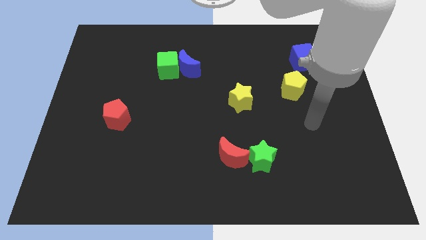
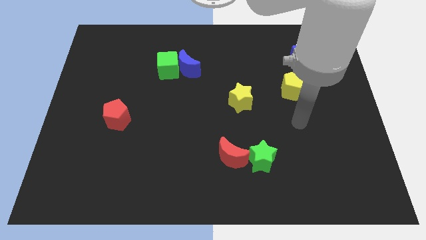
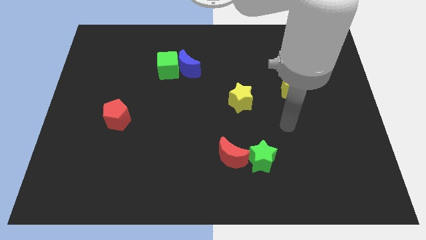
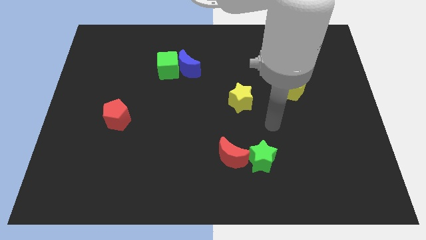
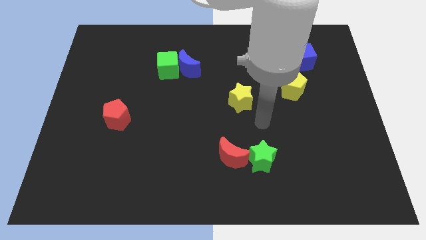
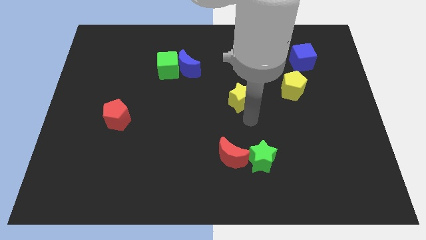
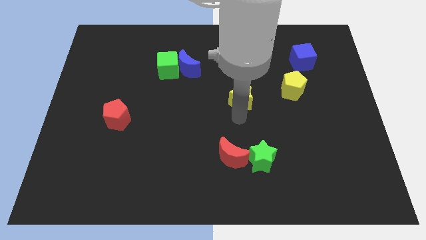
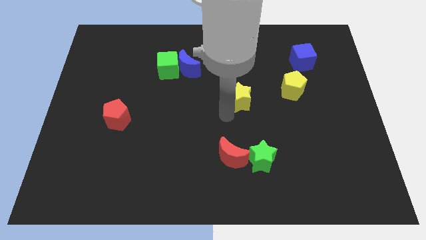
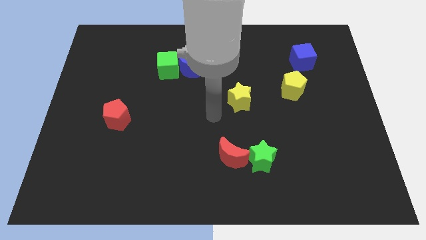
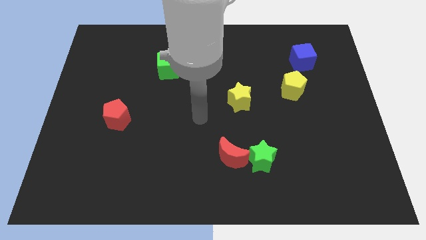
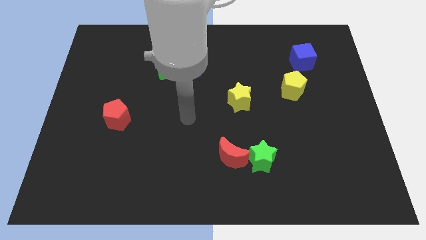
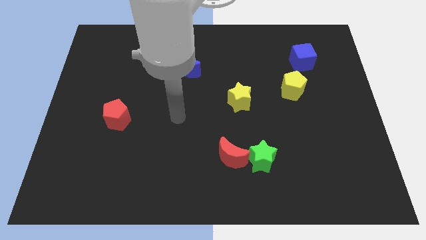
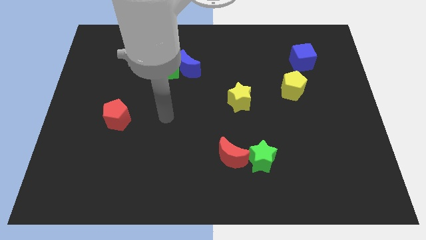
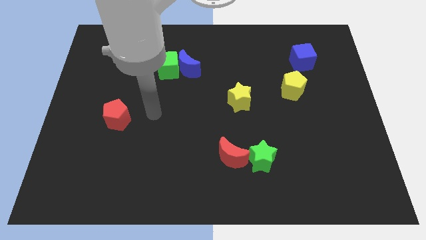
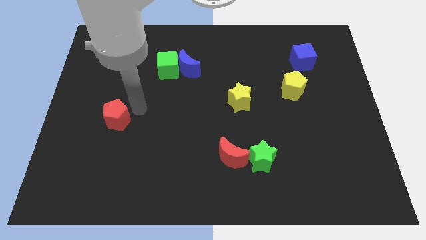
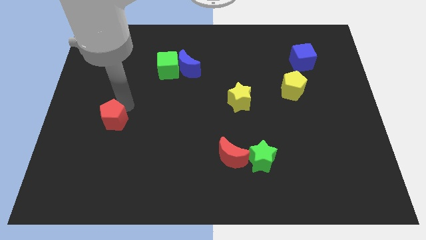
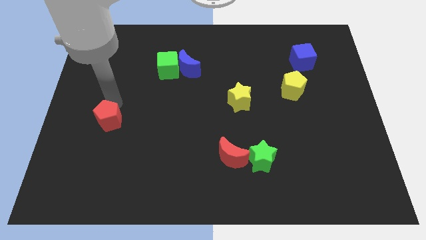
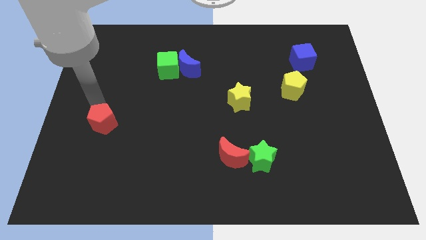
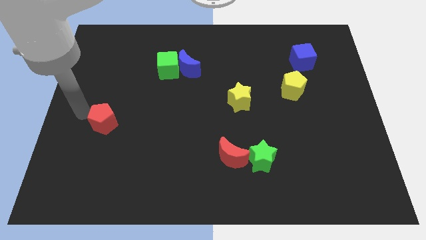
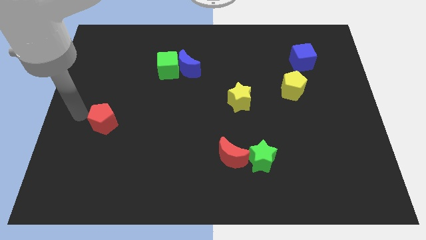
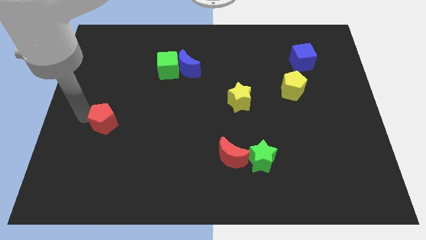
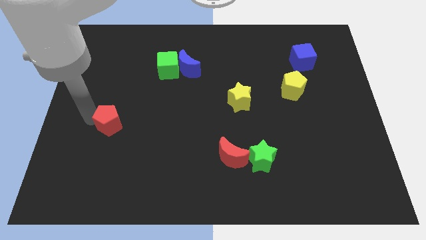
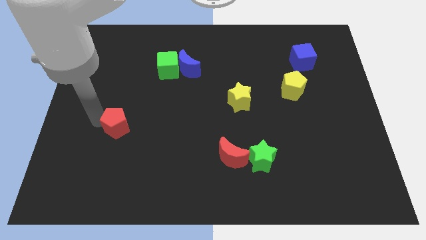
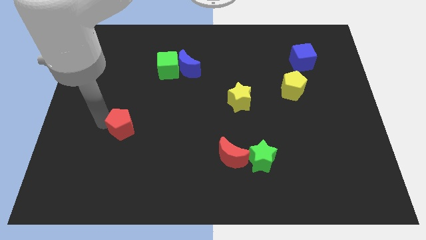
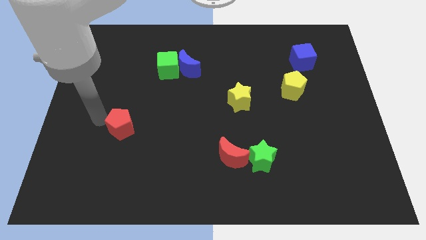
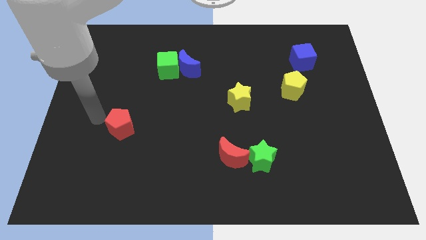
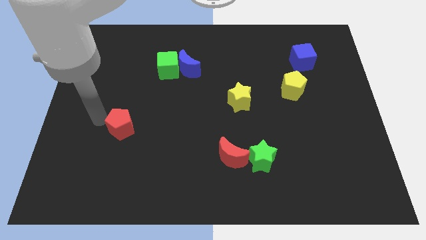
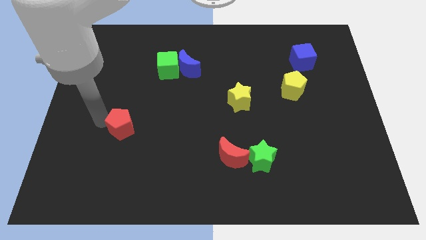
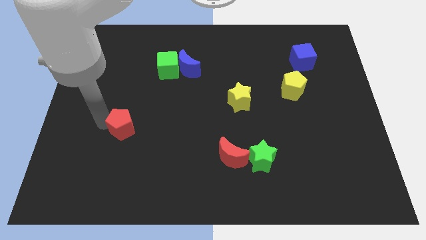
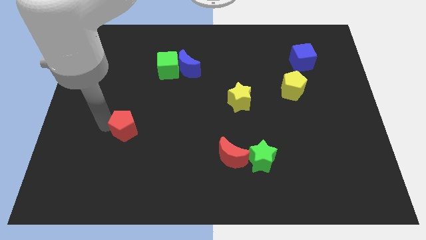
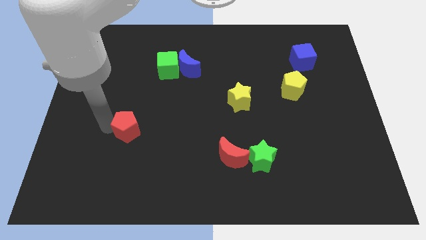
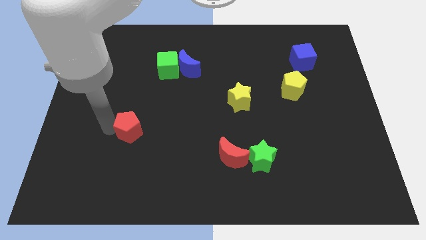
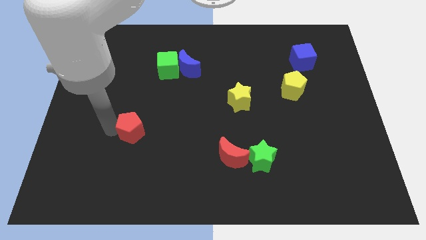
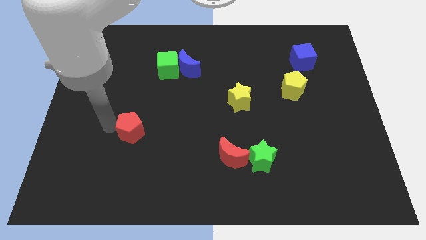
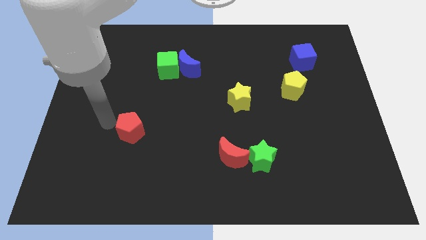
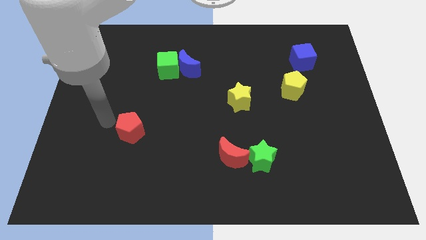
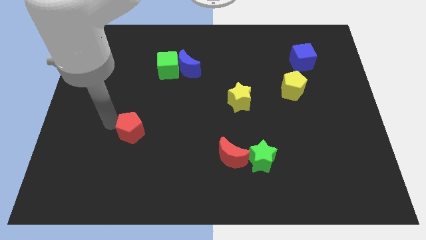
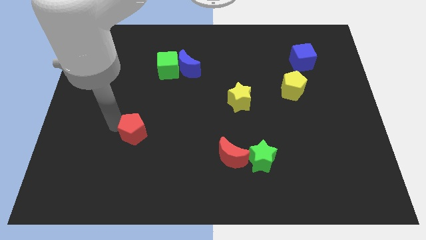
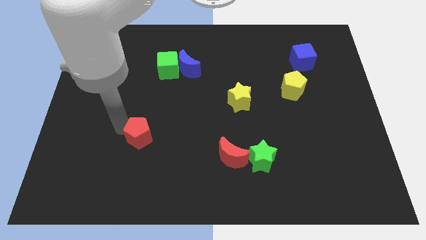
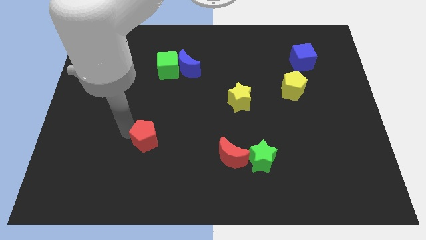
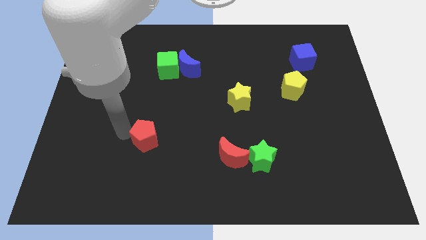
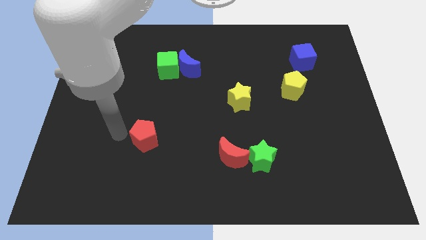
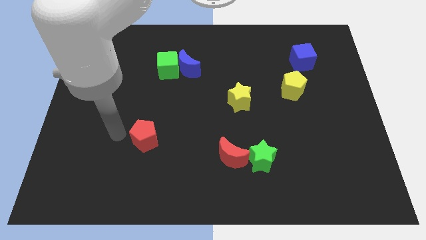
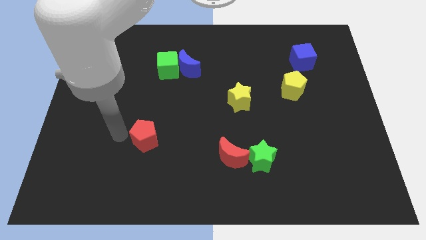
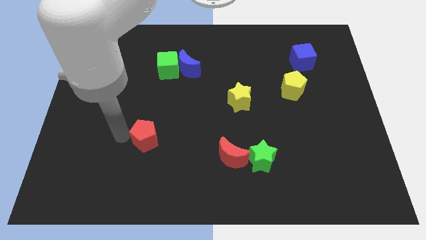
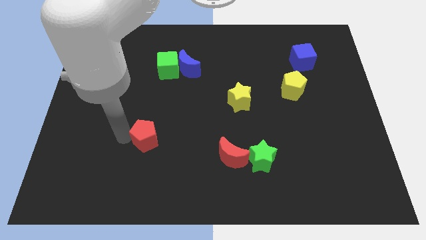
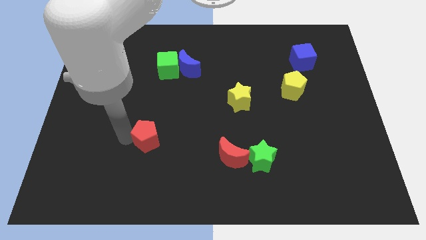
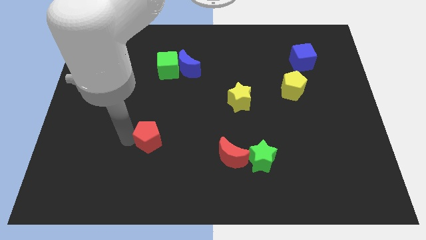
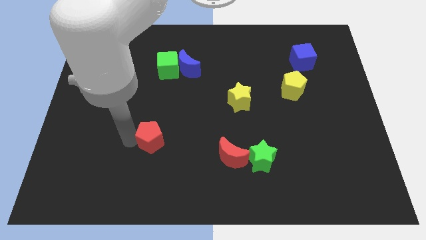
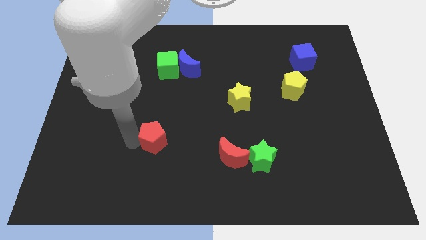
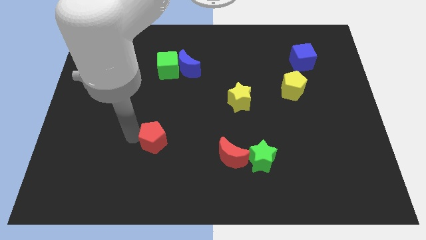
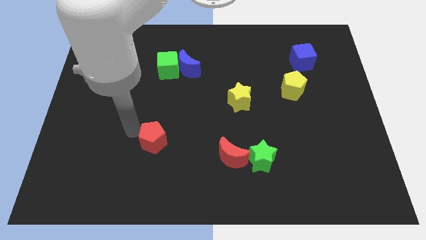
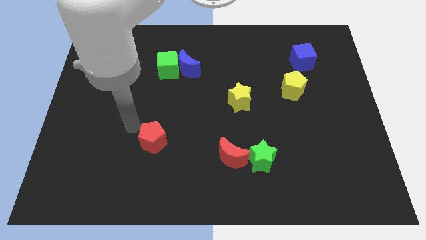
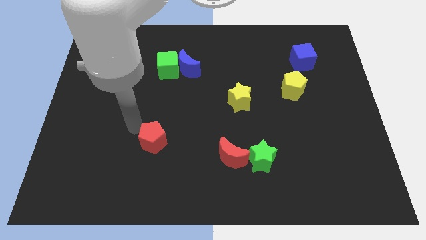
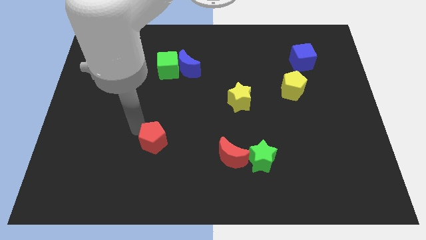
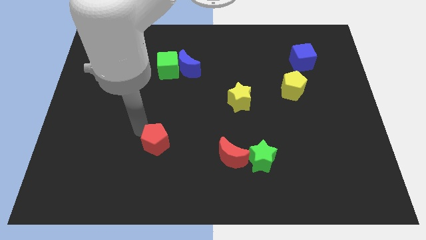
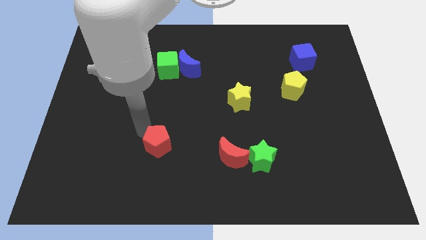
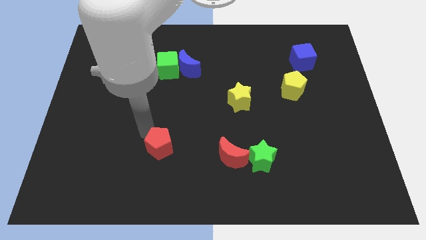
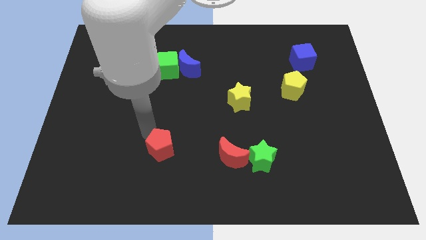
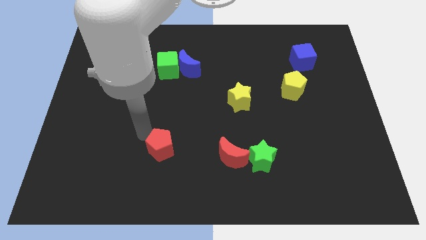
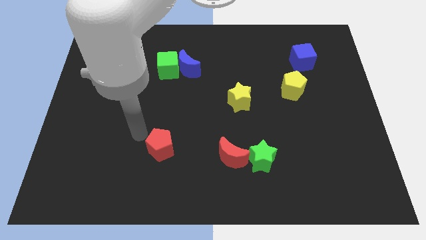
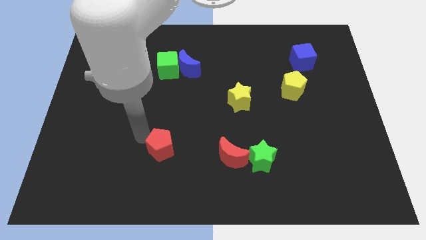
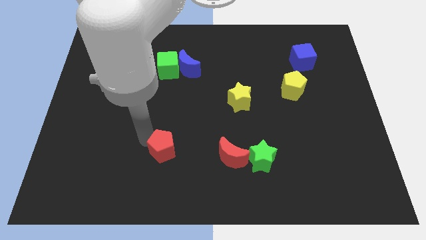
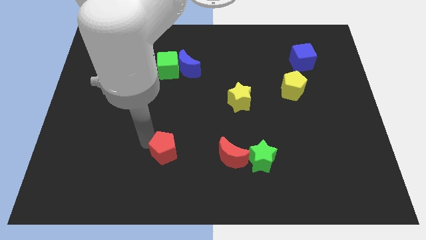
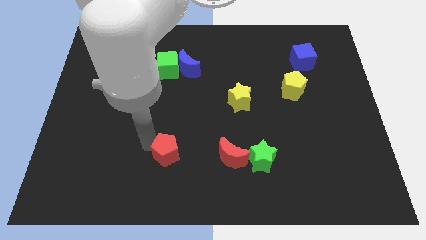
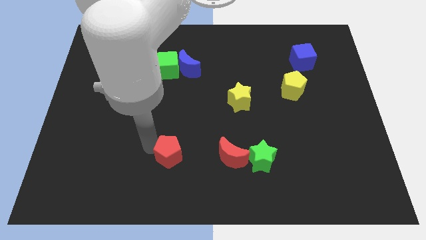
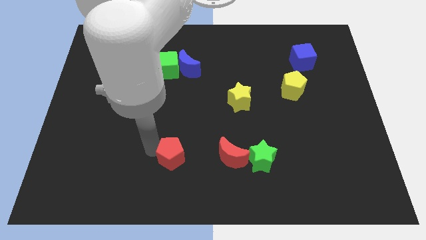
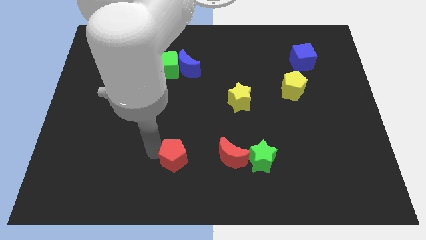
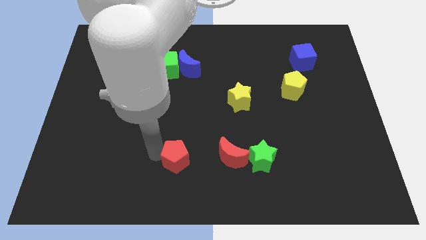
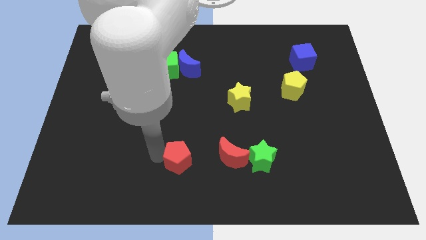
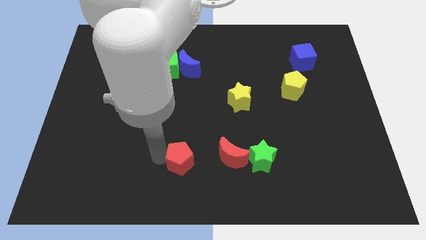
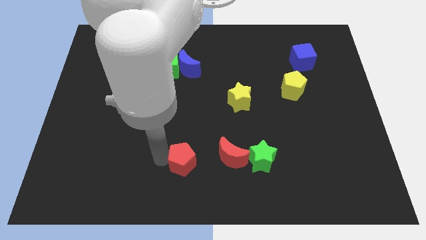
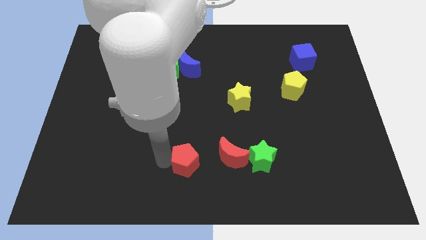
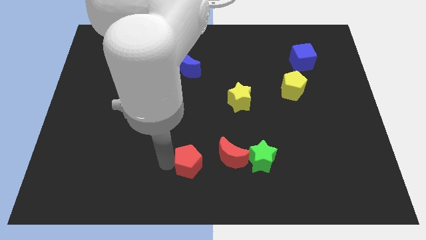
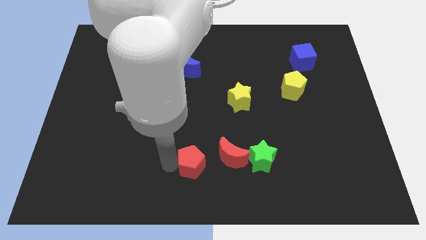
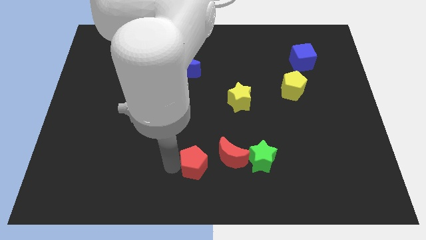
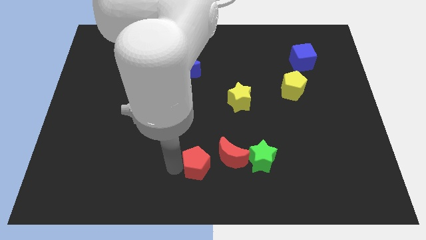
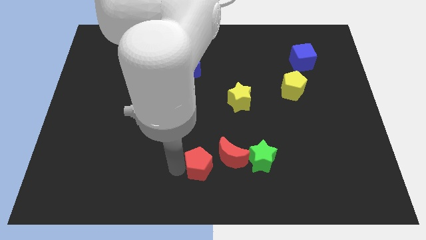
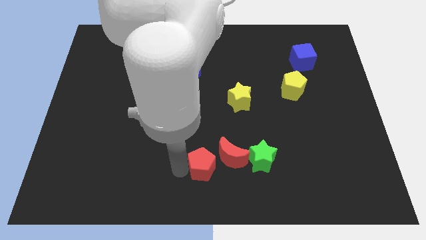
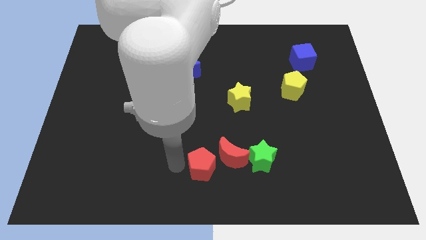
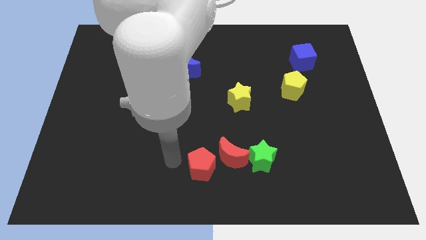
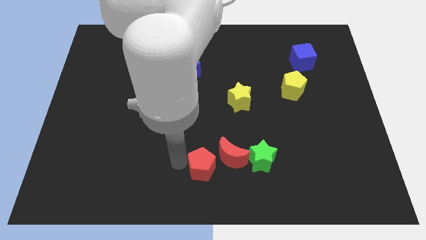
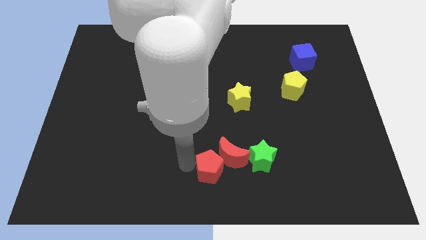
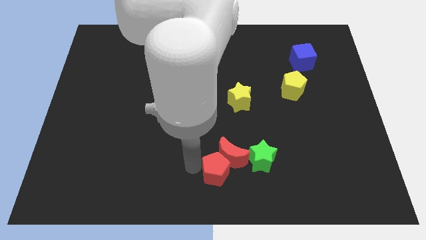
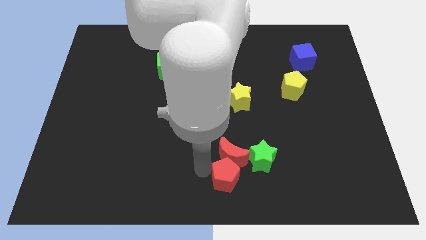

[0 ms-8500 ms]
push the red pentagon to the bottom right of the red moon
